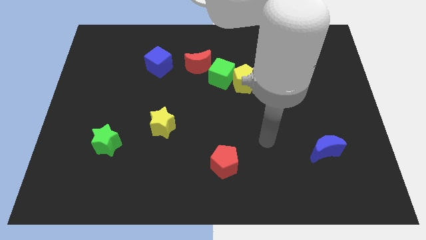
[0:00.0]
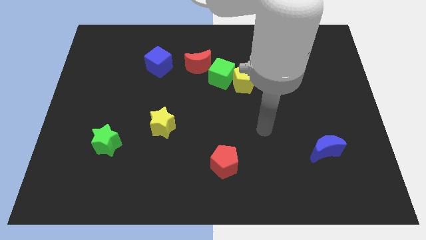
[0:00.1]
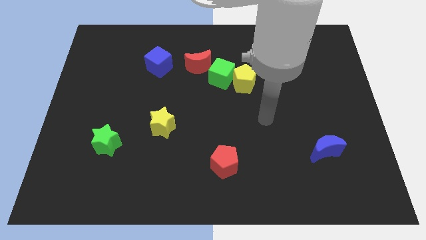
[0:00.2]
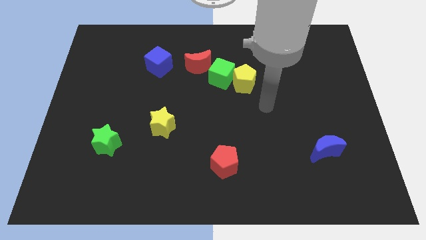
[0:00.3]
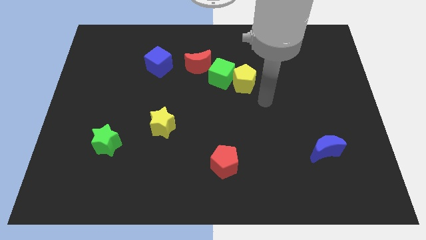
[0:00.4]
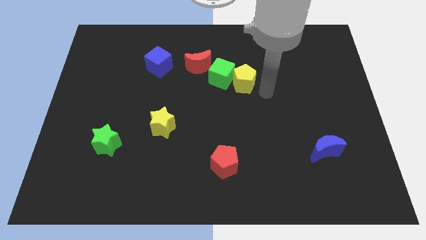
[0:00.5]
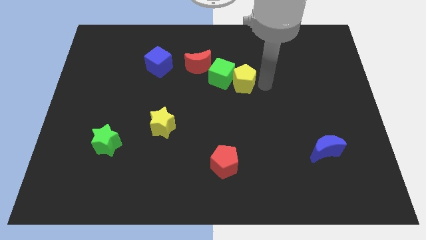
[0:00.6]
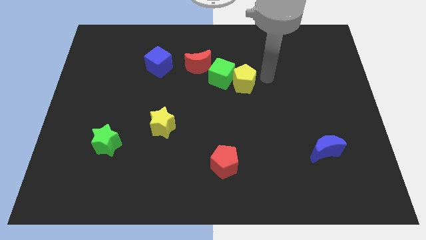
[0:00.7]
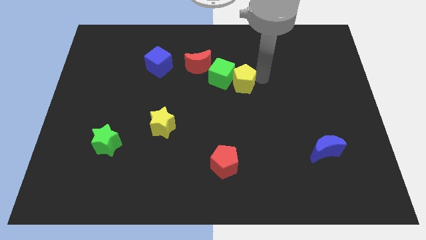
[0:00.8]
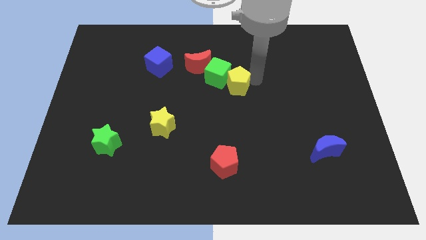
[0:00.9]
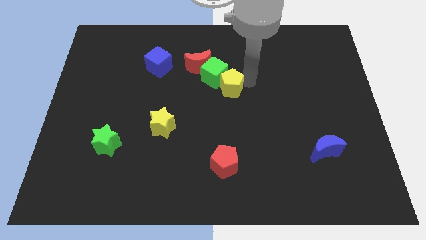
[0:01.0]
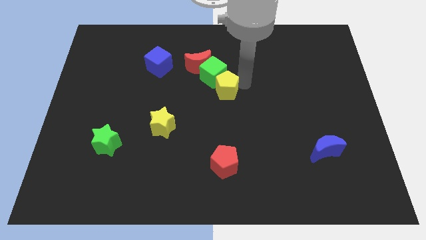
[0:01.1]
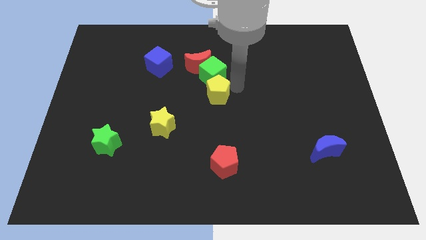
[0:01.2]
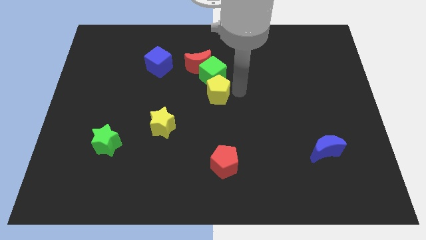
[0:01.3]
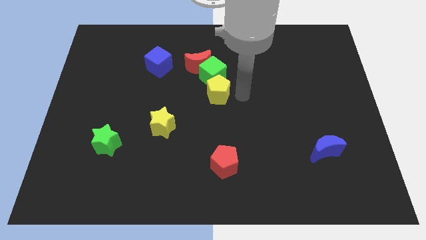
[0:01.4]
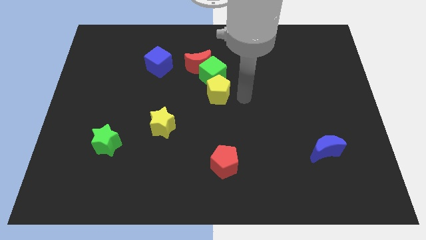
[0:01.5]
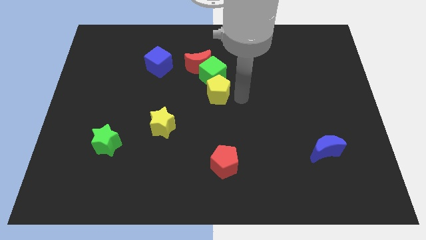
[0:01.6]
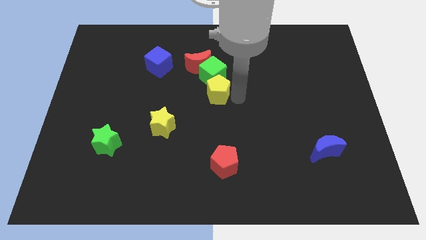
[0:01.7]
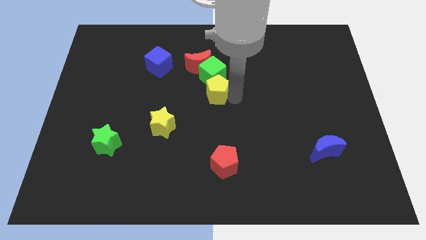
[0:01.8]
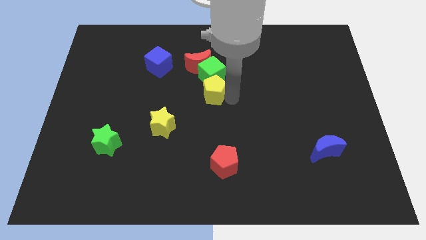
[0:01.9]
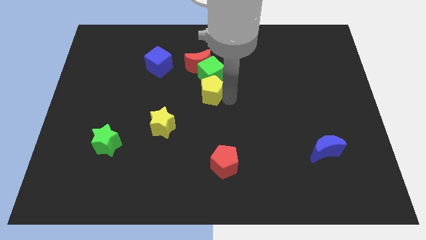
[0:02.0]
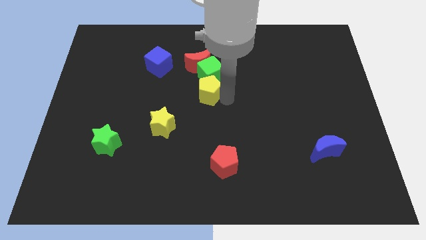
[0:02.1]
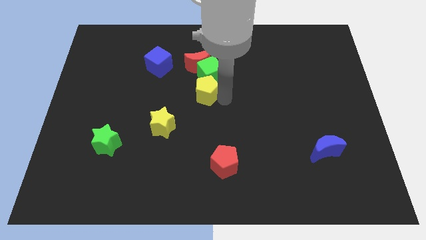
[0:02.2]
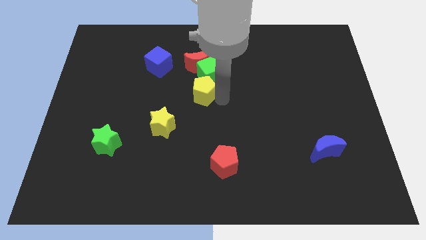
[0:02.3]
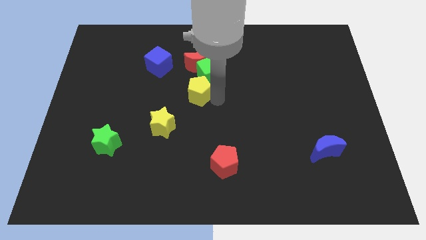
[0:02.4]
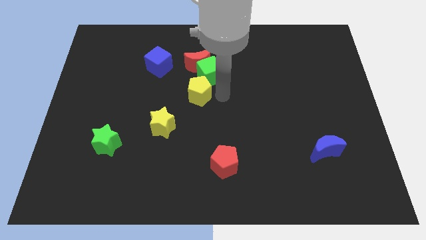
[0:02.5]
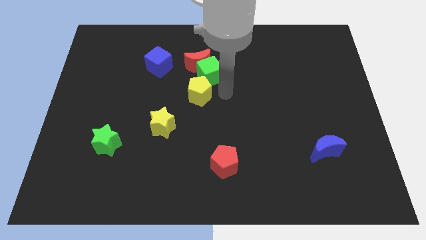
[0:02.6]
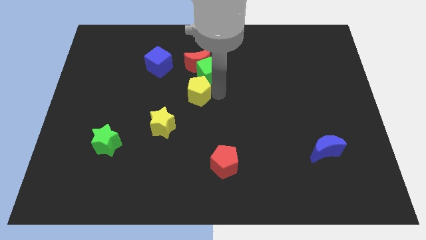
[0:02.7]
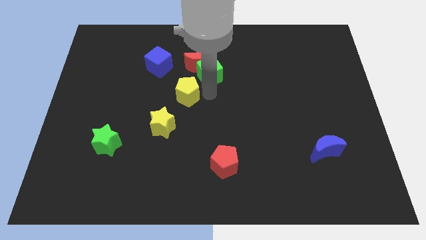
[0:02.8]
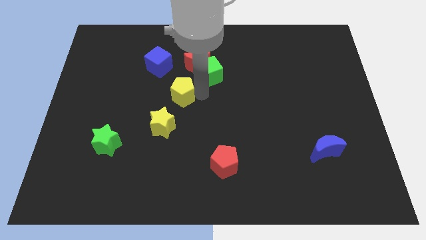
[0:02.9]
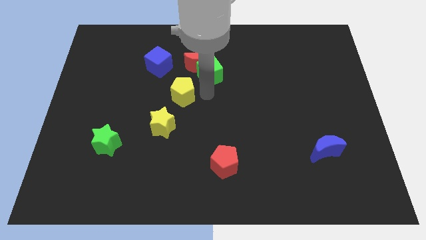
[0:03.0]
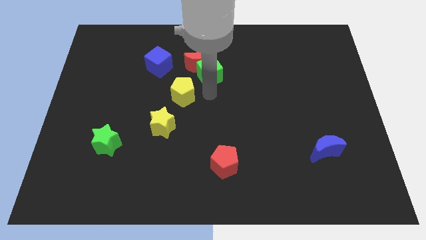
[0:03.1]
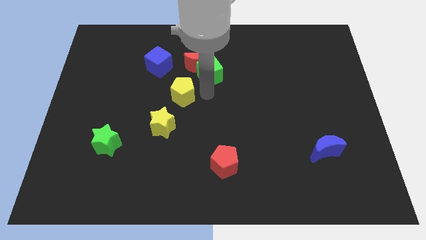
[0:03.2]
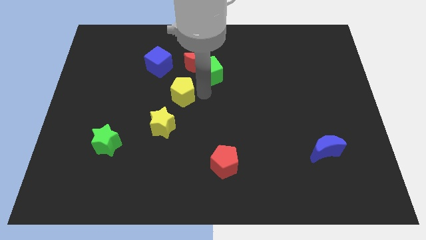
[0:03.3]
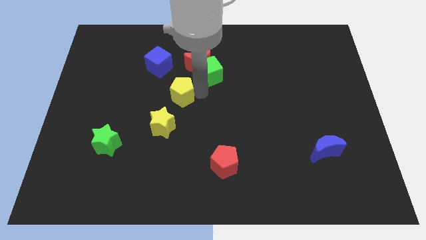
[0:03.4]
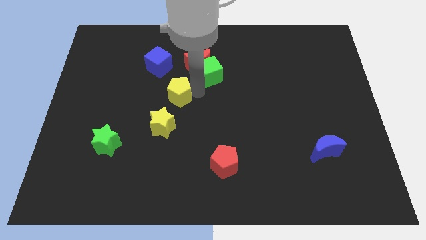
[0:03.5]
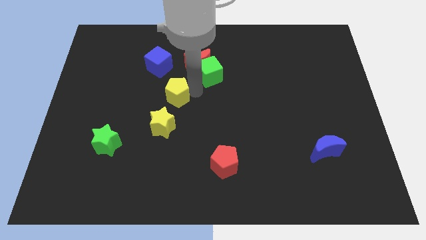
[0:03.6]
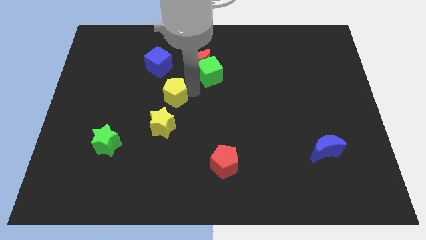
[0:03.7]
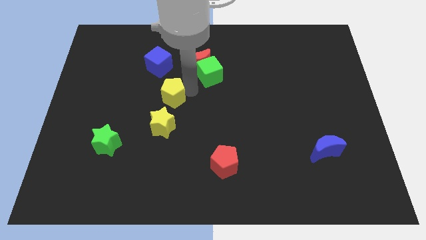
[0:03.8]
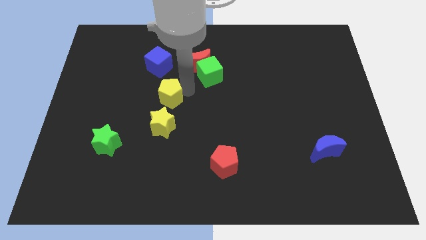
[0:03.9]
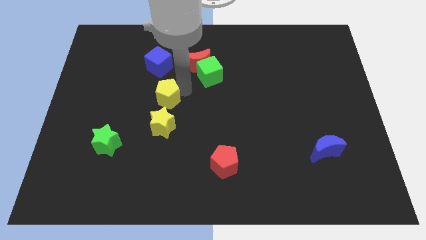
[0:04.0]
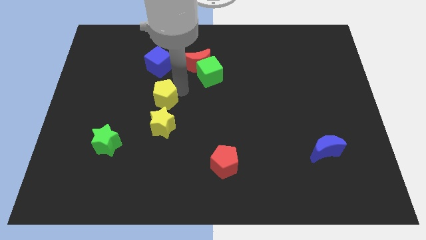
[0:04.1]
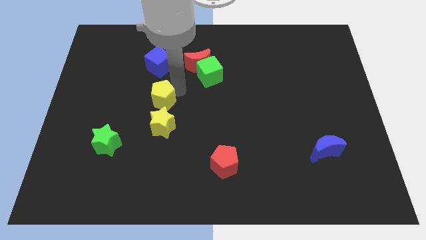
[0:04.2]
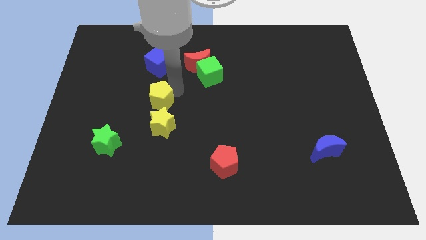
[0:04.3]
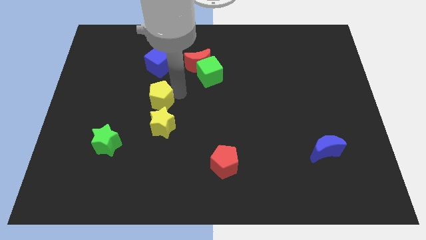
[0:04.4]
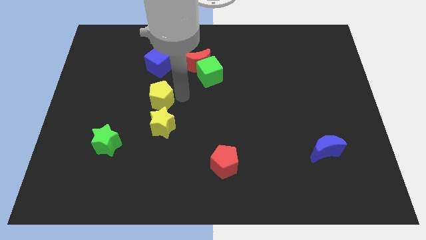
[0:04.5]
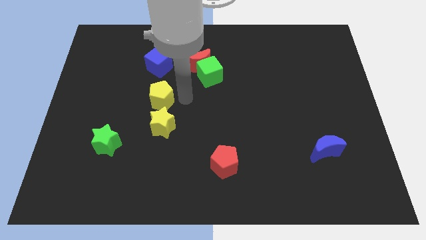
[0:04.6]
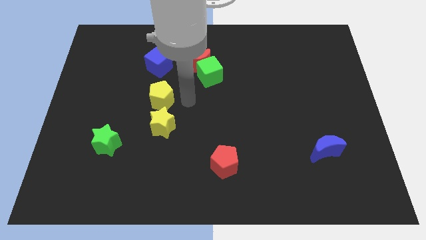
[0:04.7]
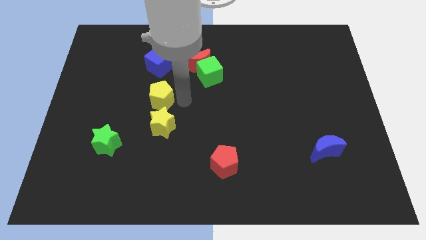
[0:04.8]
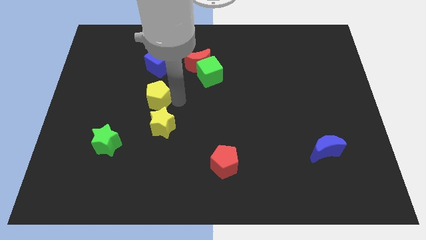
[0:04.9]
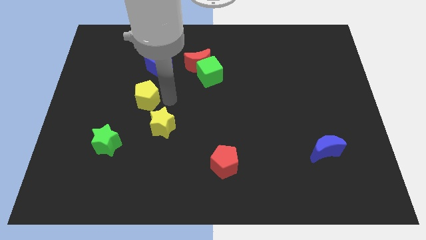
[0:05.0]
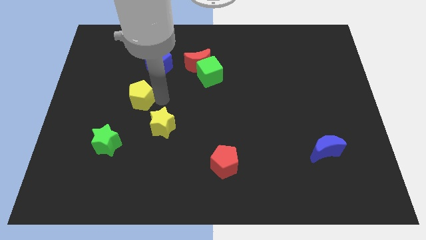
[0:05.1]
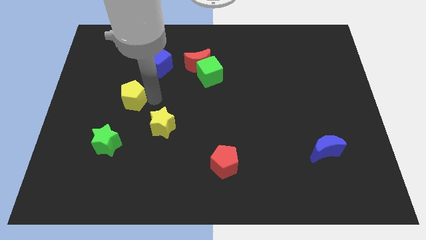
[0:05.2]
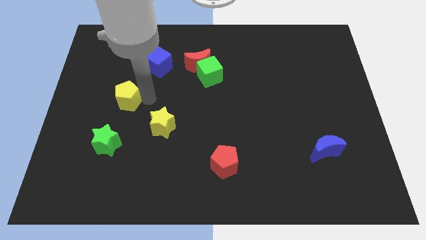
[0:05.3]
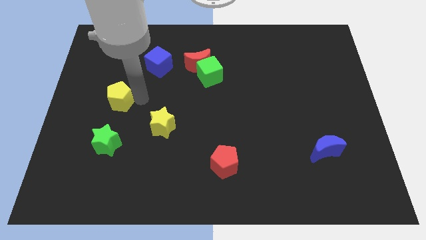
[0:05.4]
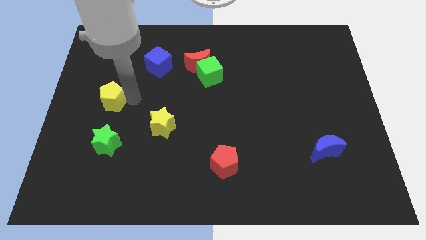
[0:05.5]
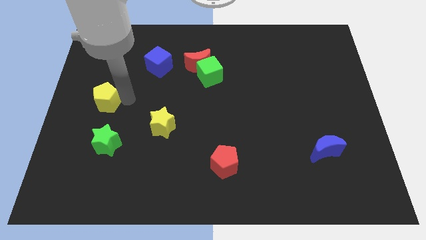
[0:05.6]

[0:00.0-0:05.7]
slide the yellow pentagon to the center left
